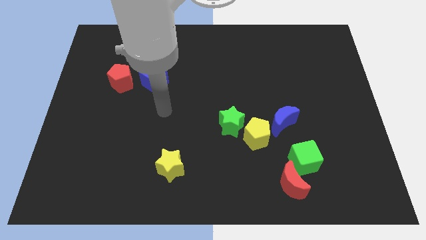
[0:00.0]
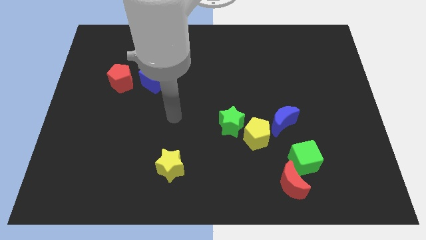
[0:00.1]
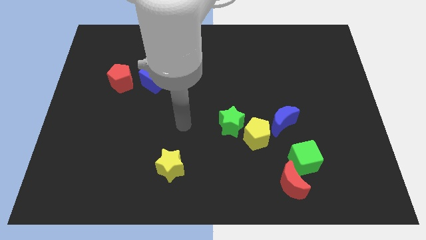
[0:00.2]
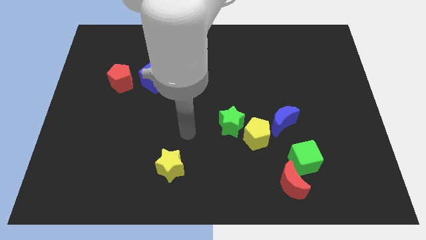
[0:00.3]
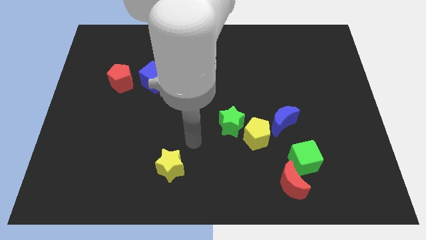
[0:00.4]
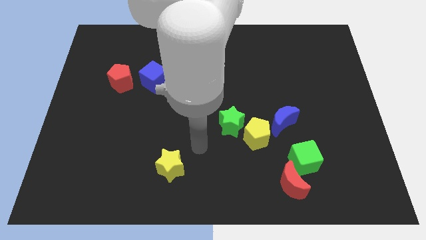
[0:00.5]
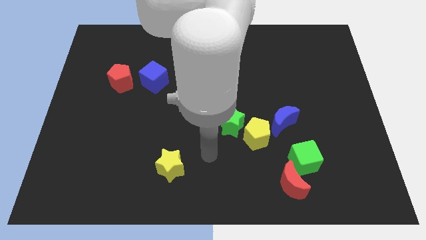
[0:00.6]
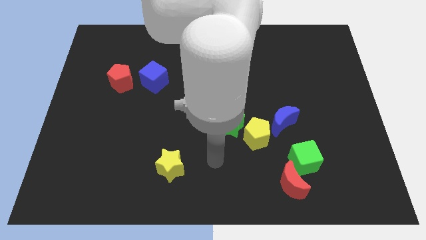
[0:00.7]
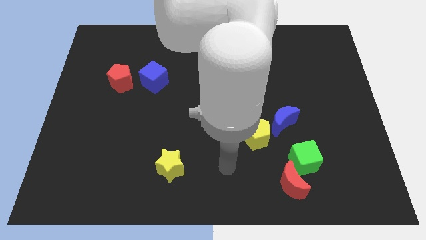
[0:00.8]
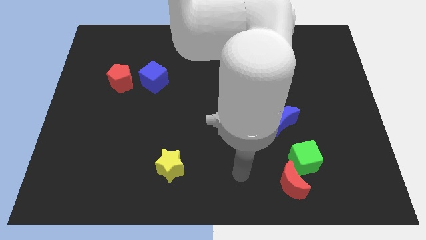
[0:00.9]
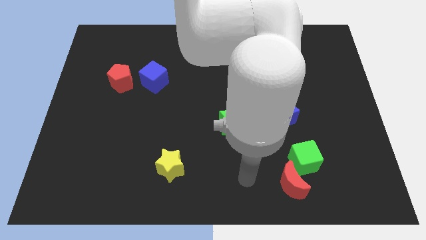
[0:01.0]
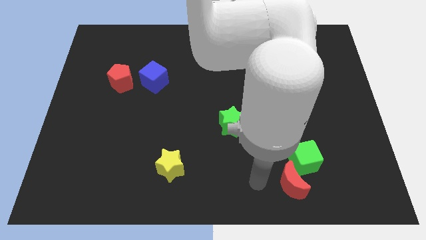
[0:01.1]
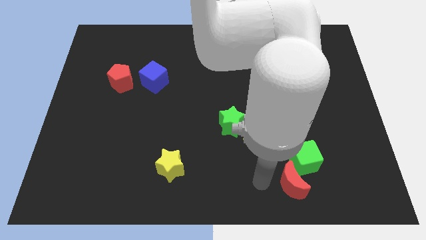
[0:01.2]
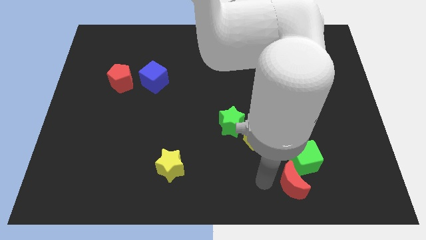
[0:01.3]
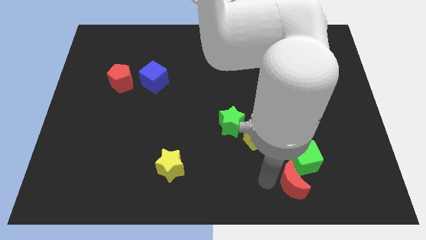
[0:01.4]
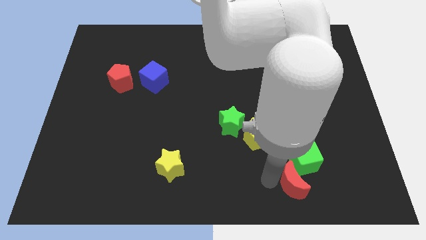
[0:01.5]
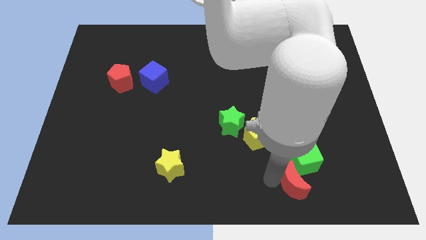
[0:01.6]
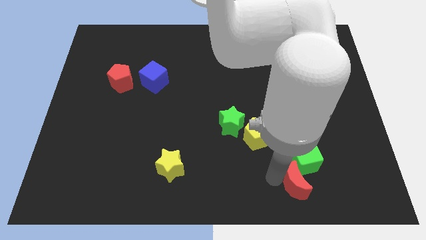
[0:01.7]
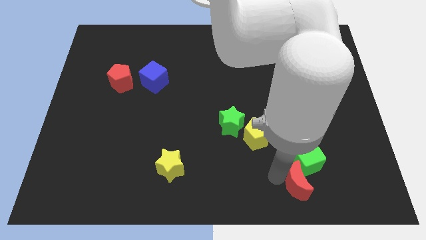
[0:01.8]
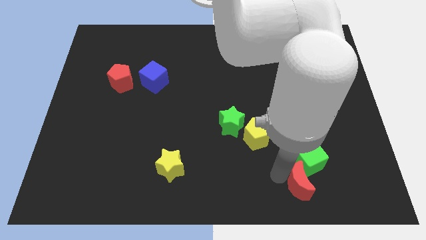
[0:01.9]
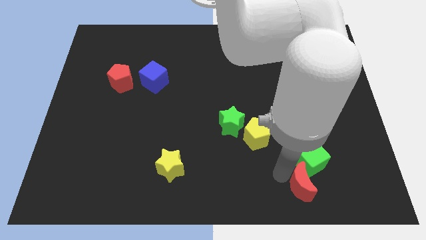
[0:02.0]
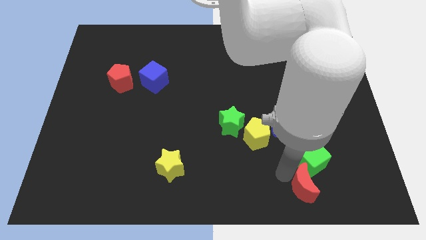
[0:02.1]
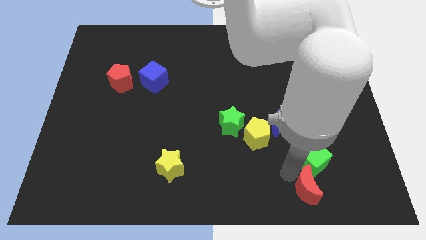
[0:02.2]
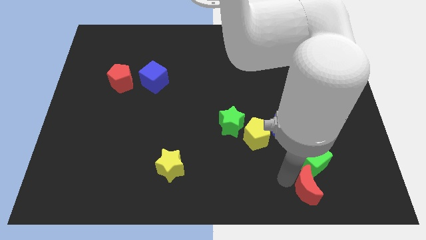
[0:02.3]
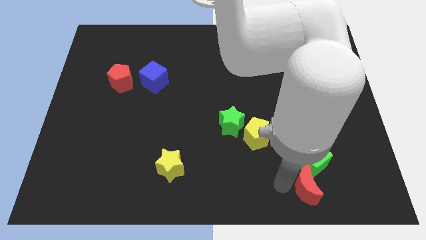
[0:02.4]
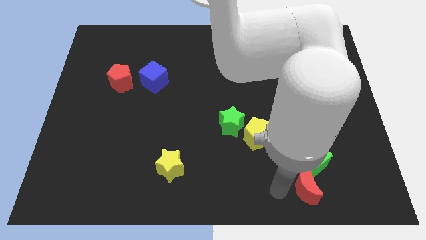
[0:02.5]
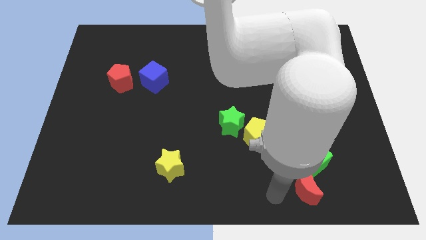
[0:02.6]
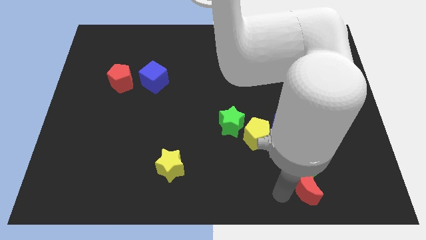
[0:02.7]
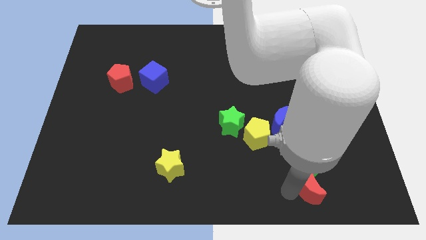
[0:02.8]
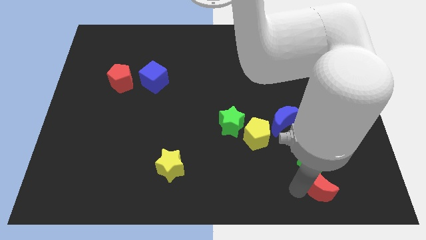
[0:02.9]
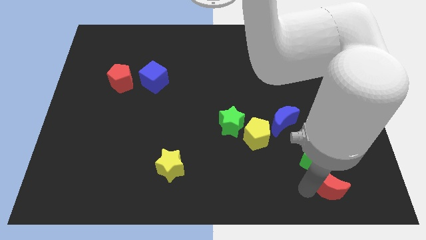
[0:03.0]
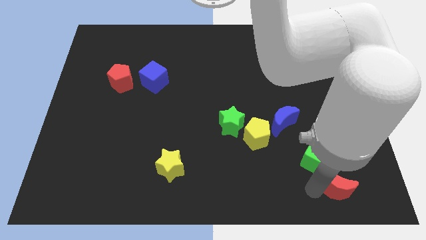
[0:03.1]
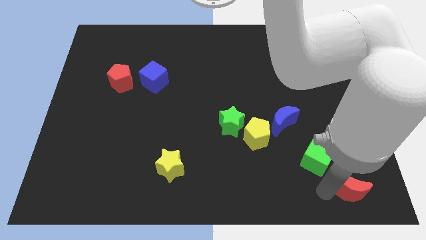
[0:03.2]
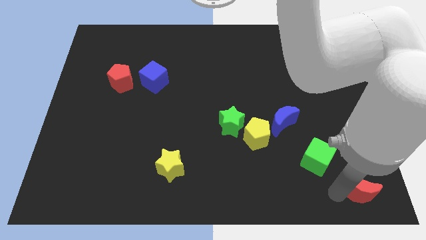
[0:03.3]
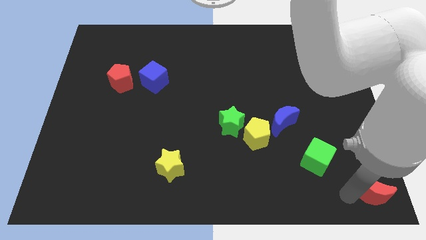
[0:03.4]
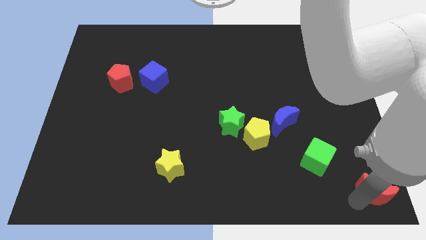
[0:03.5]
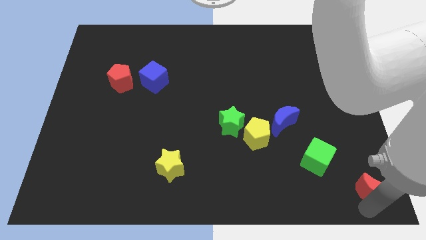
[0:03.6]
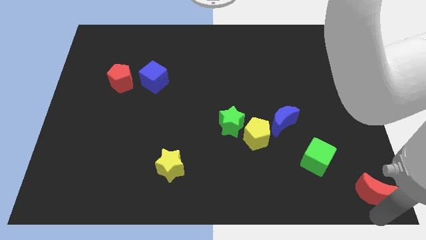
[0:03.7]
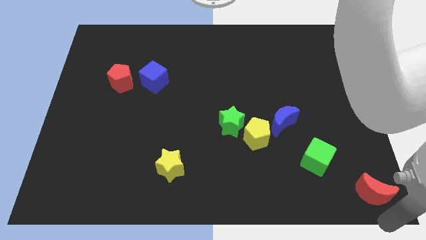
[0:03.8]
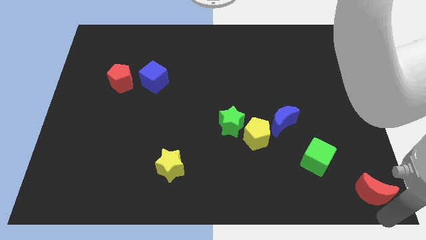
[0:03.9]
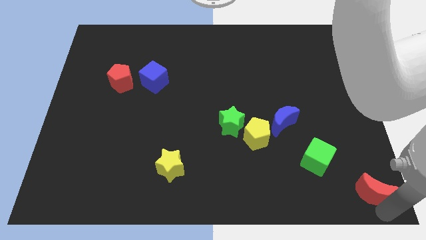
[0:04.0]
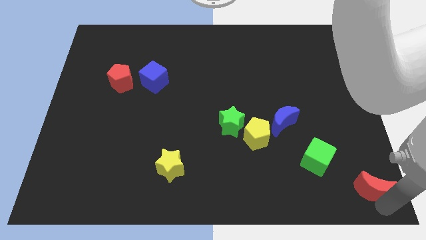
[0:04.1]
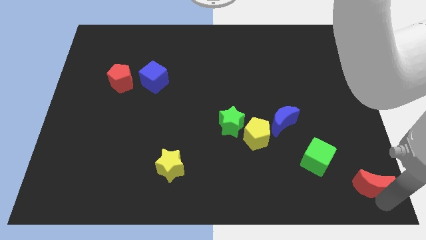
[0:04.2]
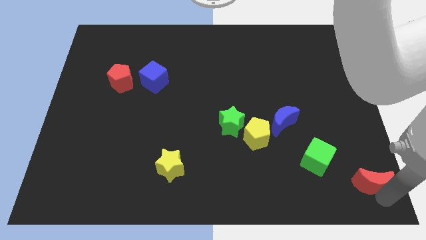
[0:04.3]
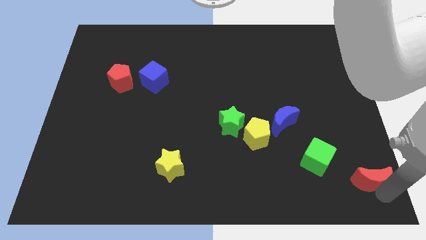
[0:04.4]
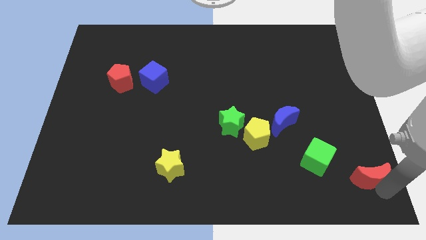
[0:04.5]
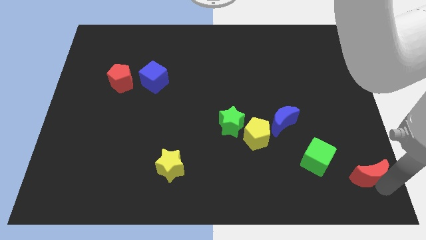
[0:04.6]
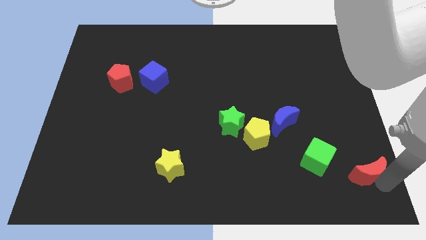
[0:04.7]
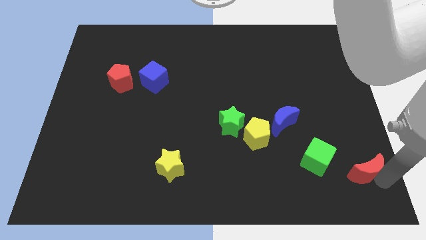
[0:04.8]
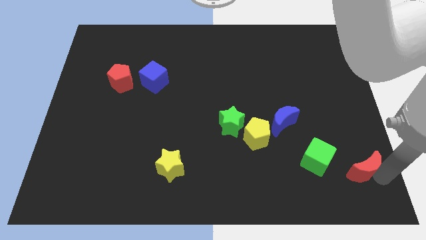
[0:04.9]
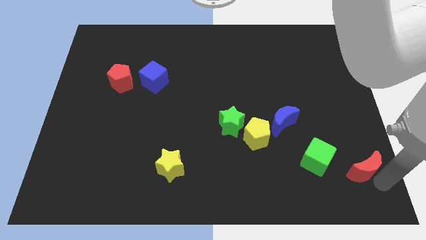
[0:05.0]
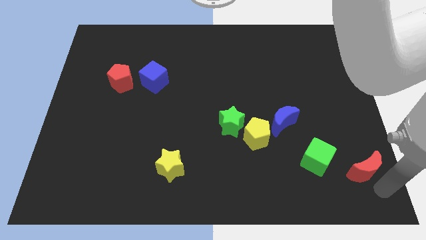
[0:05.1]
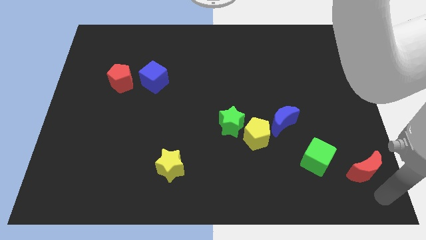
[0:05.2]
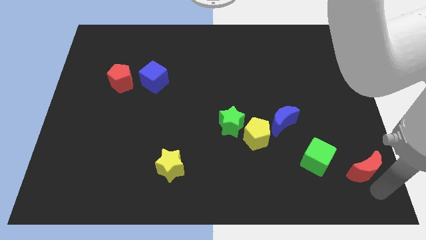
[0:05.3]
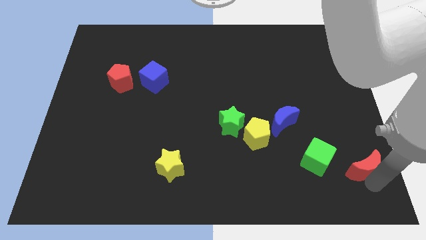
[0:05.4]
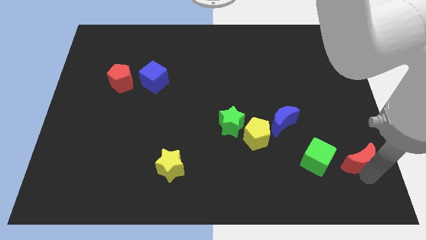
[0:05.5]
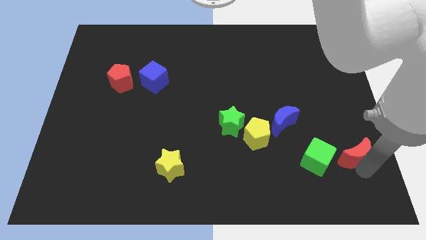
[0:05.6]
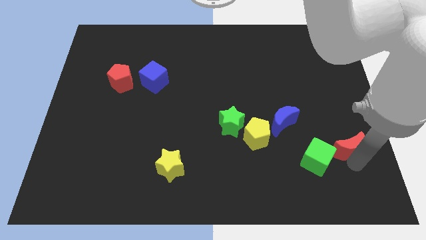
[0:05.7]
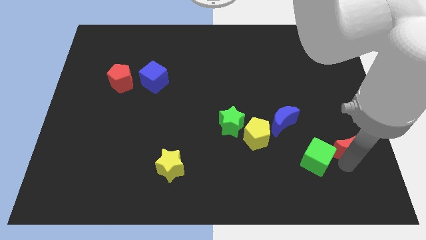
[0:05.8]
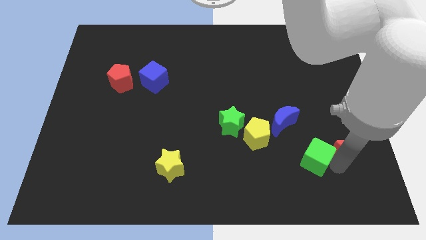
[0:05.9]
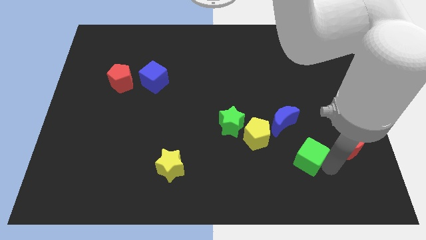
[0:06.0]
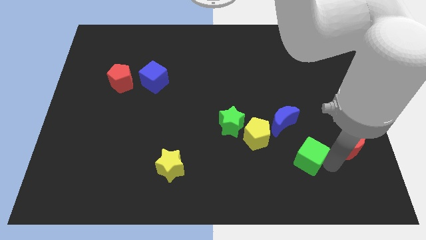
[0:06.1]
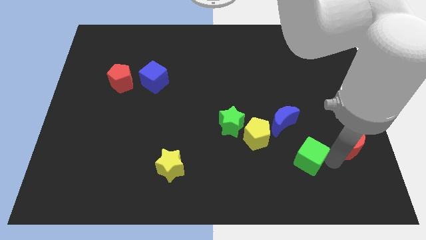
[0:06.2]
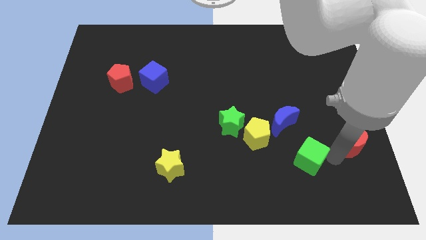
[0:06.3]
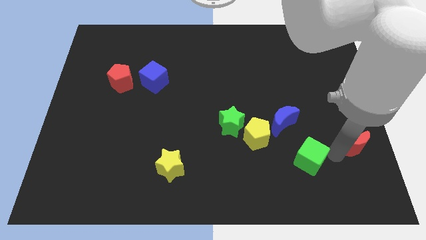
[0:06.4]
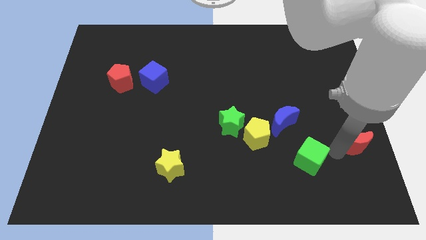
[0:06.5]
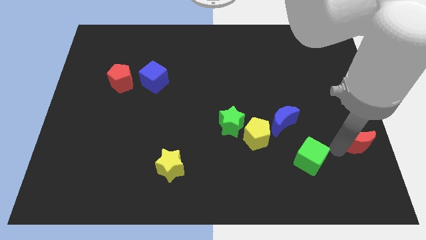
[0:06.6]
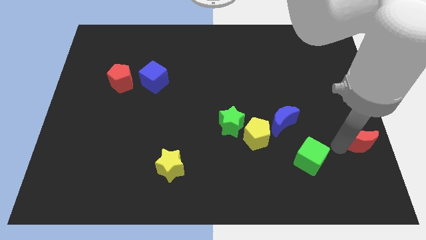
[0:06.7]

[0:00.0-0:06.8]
push the red moon to the right side
